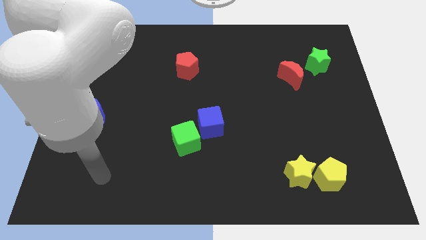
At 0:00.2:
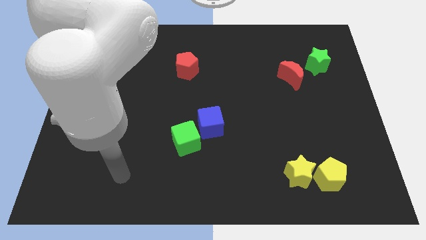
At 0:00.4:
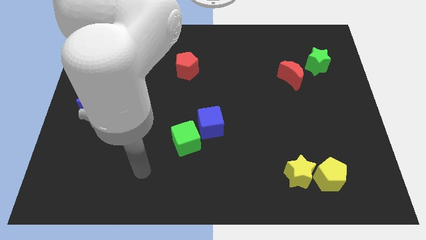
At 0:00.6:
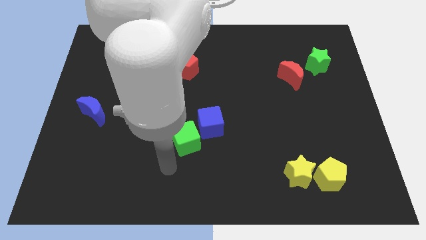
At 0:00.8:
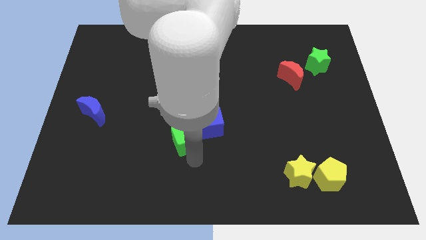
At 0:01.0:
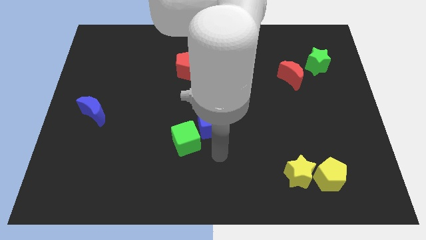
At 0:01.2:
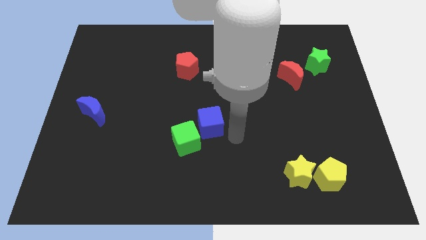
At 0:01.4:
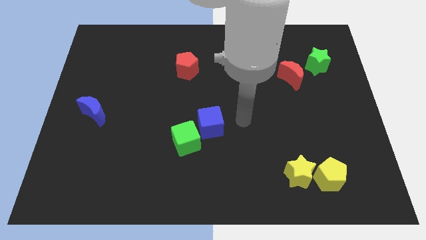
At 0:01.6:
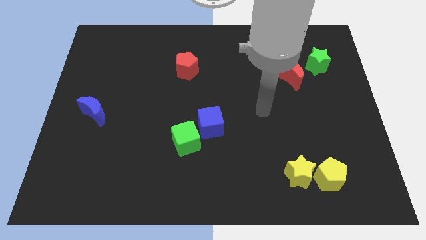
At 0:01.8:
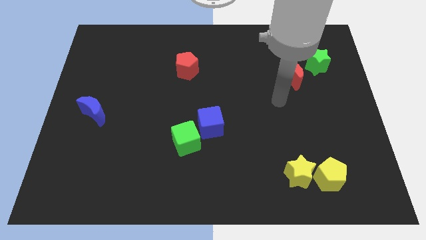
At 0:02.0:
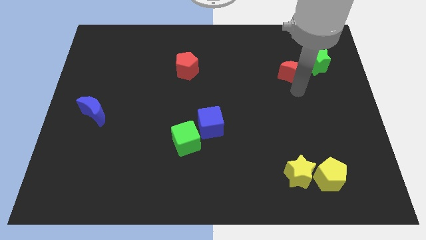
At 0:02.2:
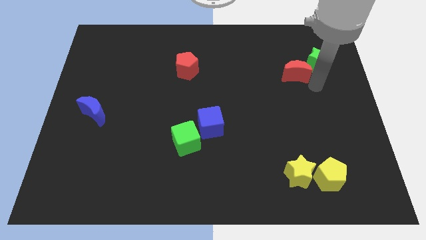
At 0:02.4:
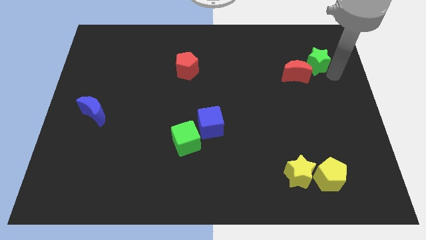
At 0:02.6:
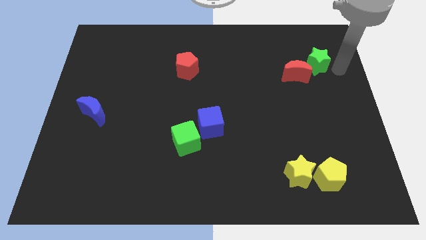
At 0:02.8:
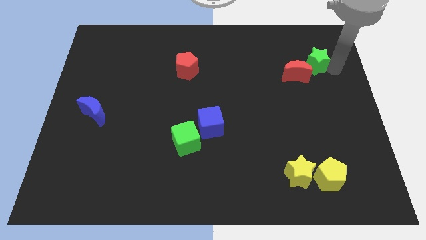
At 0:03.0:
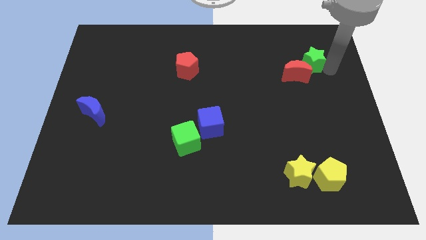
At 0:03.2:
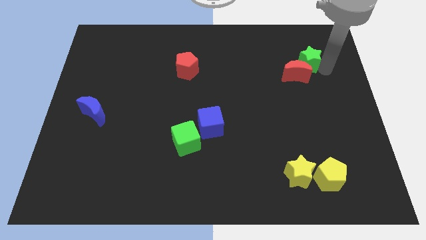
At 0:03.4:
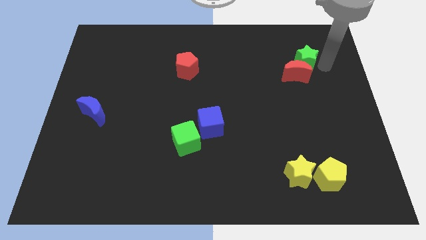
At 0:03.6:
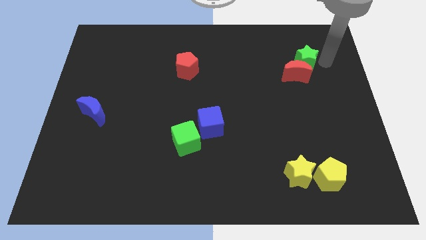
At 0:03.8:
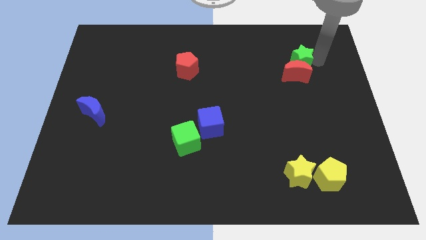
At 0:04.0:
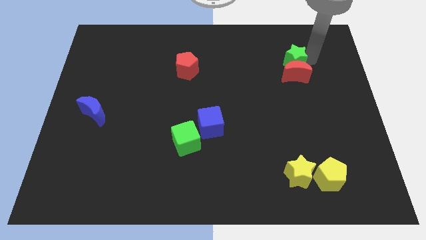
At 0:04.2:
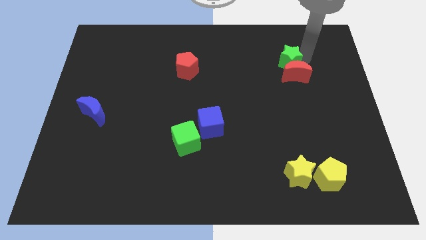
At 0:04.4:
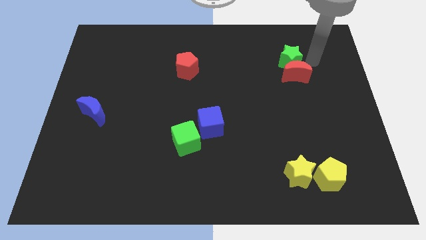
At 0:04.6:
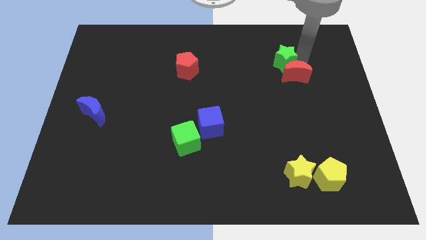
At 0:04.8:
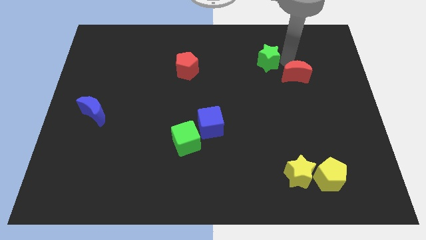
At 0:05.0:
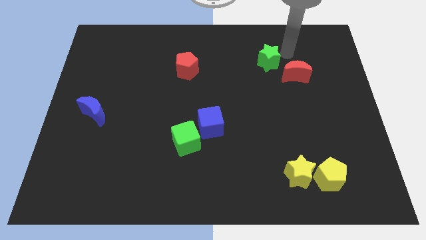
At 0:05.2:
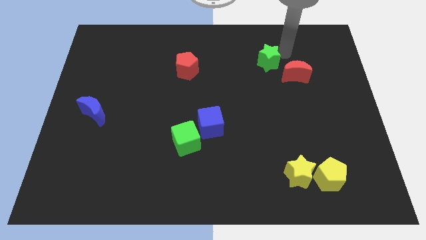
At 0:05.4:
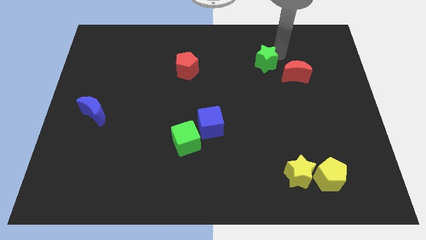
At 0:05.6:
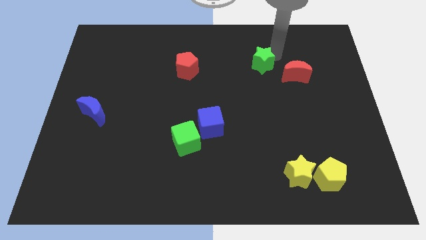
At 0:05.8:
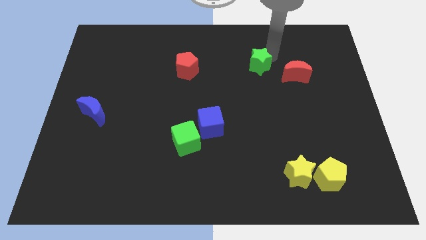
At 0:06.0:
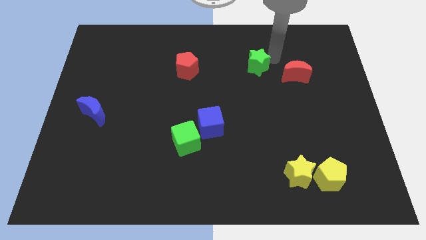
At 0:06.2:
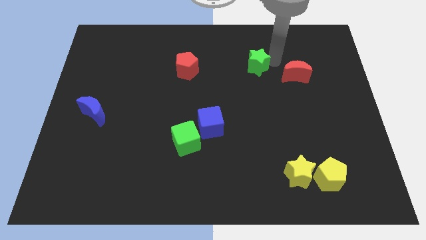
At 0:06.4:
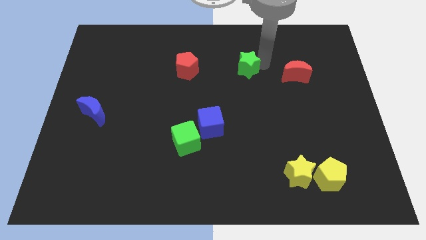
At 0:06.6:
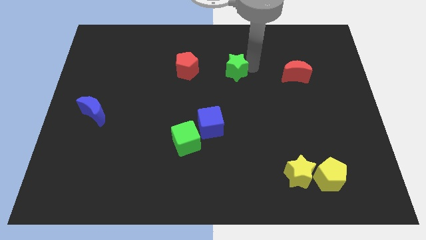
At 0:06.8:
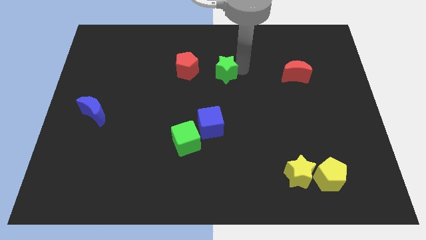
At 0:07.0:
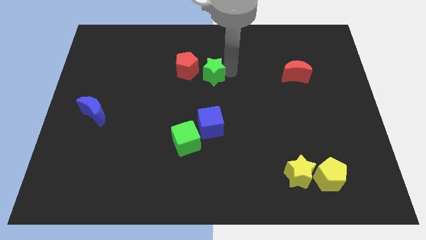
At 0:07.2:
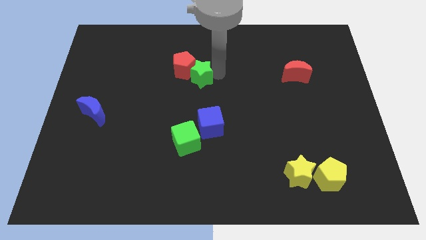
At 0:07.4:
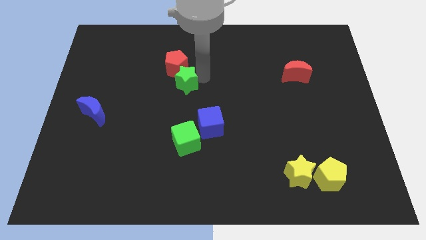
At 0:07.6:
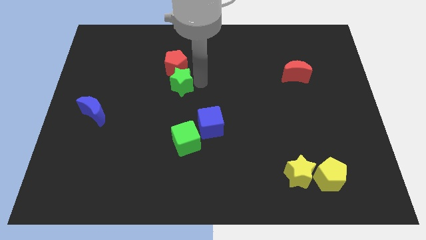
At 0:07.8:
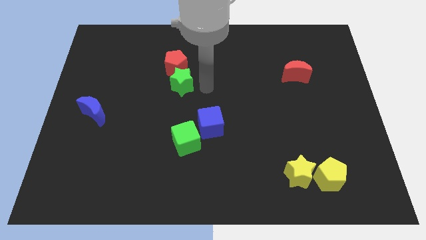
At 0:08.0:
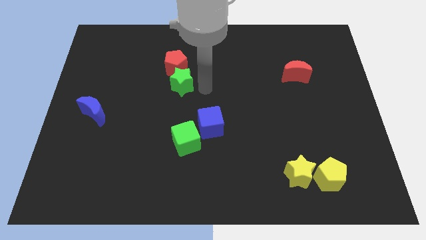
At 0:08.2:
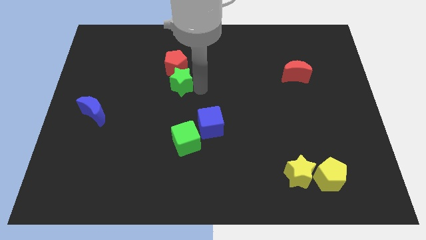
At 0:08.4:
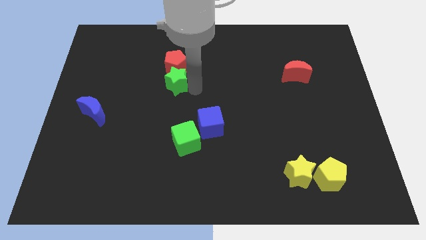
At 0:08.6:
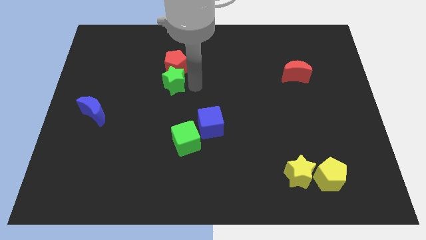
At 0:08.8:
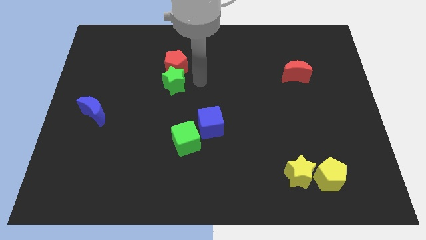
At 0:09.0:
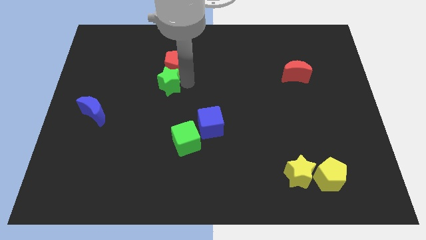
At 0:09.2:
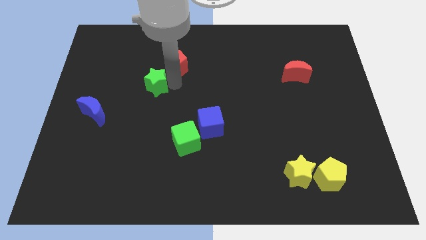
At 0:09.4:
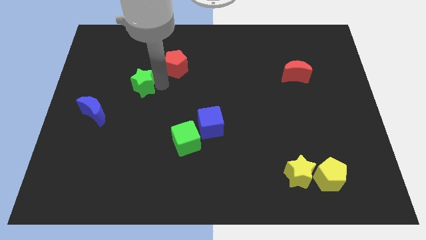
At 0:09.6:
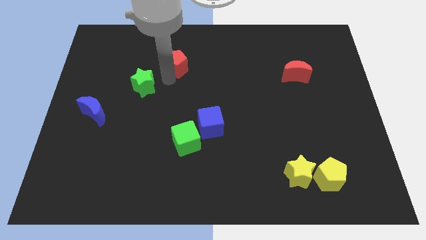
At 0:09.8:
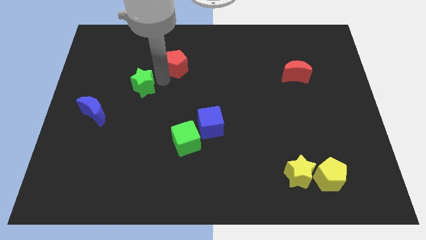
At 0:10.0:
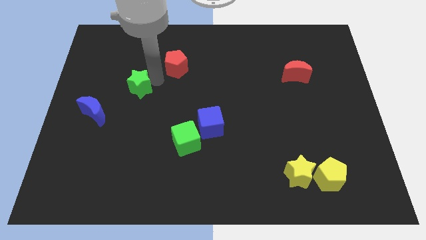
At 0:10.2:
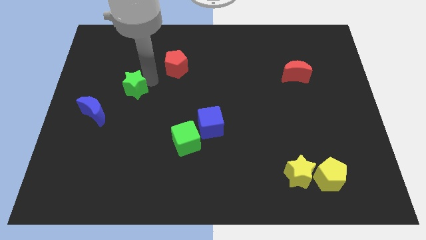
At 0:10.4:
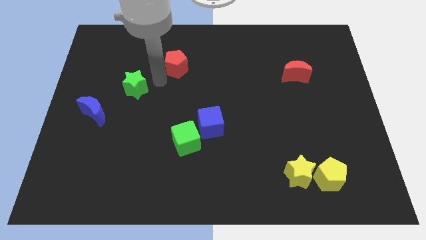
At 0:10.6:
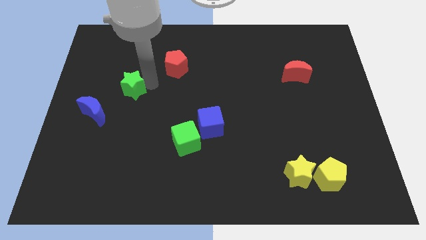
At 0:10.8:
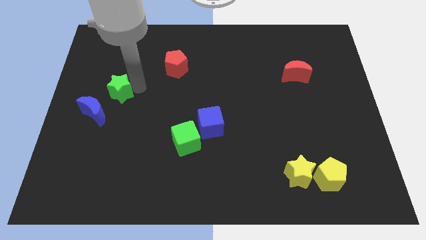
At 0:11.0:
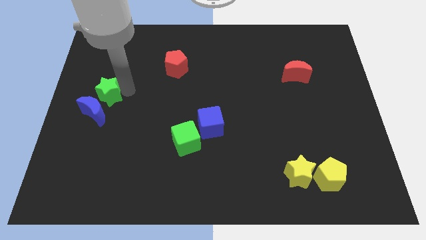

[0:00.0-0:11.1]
push the green star to the left side
